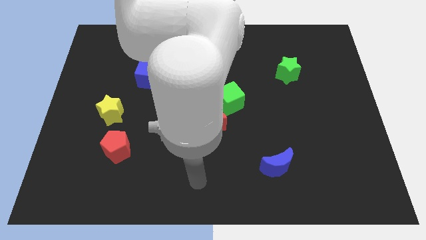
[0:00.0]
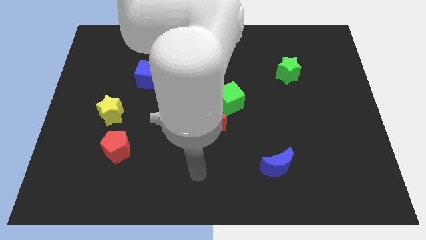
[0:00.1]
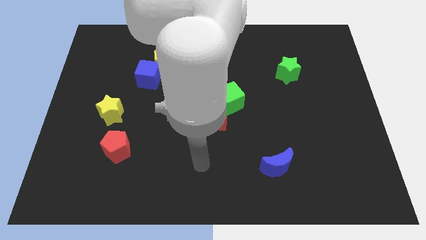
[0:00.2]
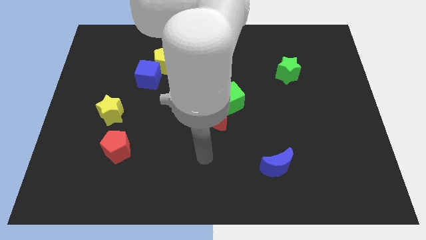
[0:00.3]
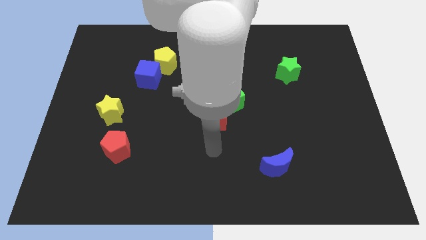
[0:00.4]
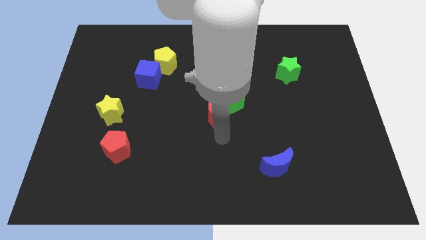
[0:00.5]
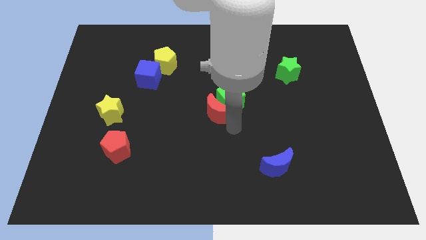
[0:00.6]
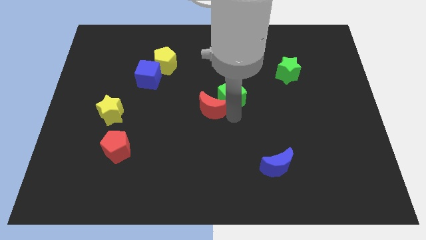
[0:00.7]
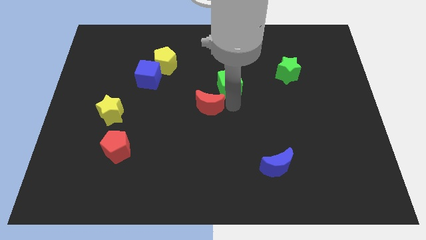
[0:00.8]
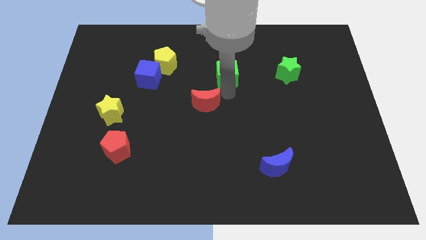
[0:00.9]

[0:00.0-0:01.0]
move the red moon away from the green cube

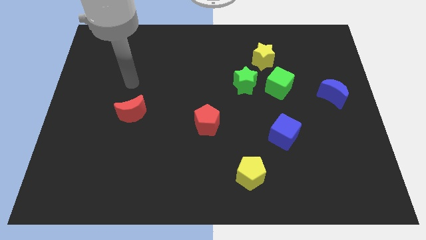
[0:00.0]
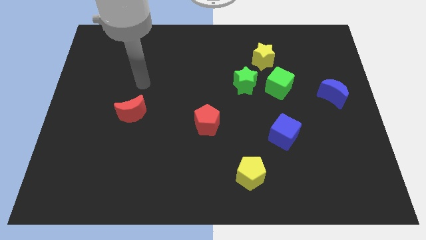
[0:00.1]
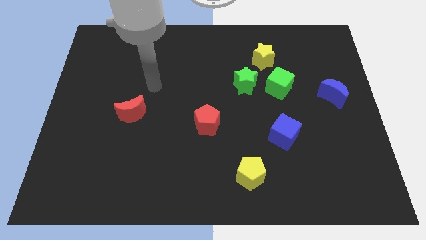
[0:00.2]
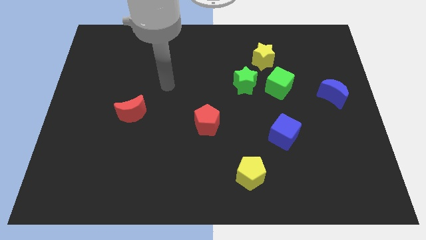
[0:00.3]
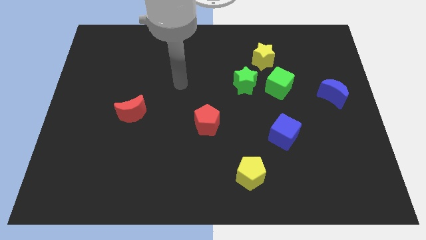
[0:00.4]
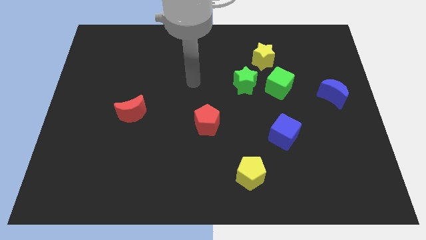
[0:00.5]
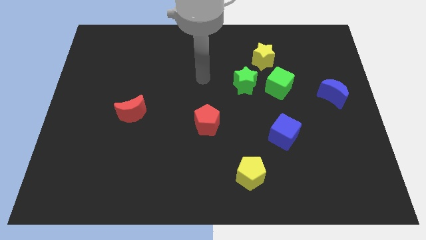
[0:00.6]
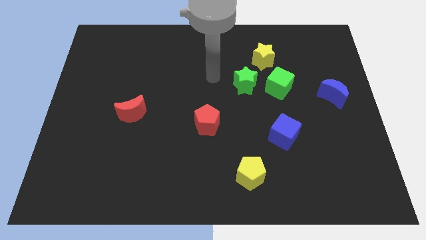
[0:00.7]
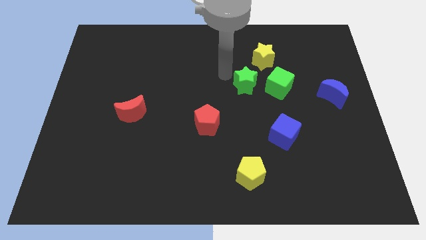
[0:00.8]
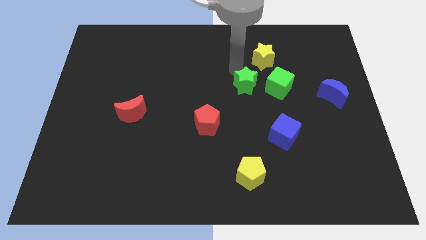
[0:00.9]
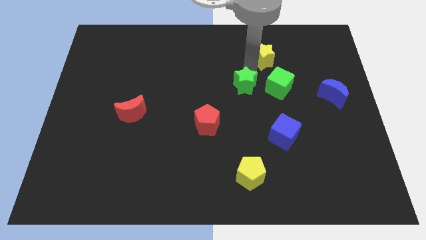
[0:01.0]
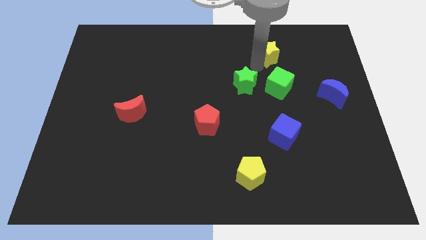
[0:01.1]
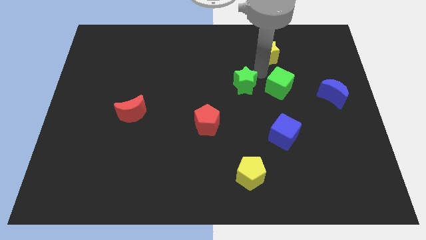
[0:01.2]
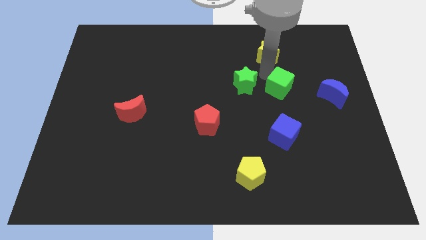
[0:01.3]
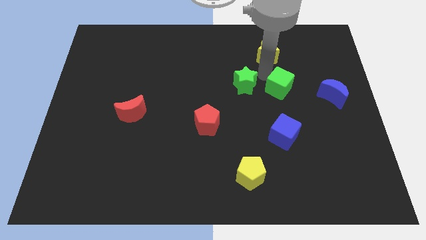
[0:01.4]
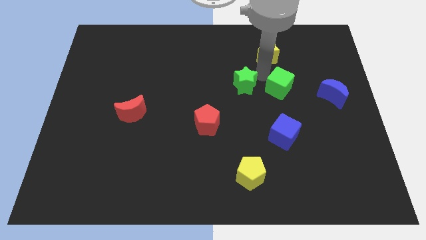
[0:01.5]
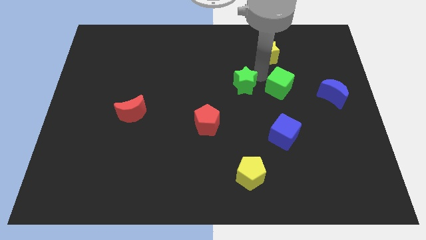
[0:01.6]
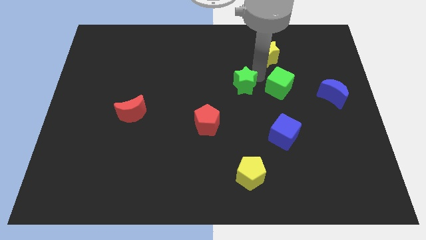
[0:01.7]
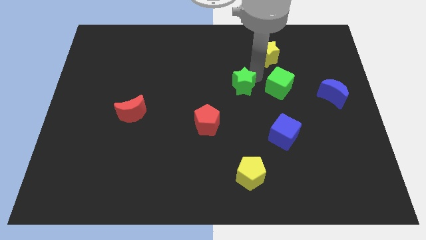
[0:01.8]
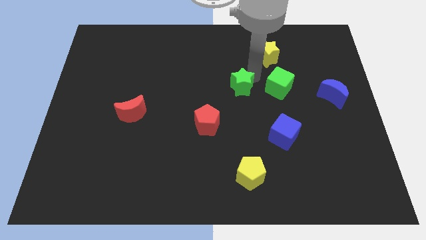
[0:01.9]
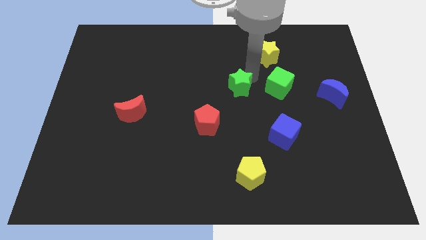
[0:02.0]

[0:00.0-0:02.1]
separate the green star from the green cube and yellow star

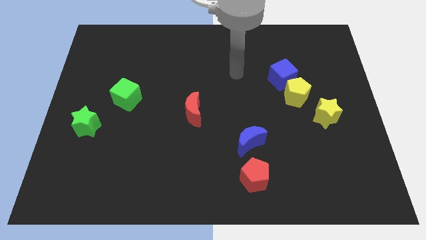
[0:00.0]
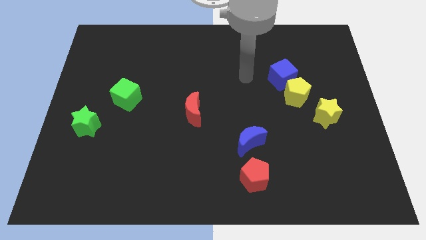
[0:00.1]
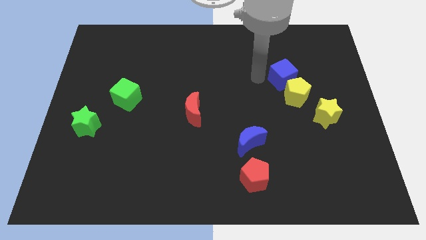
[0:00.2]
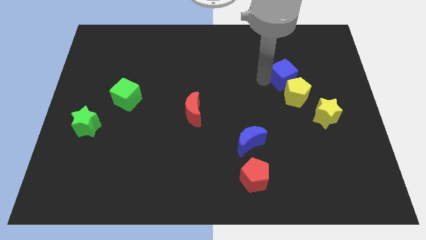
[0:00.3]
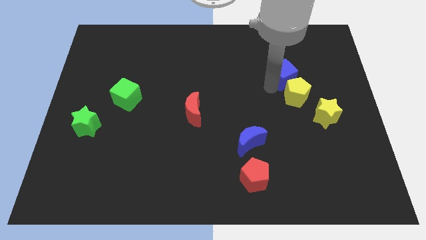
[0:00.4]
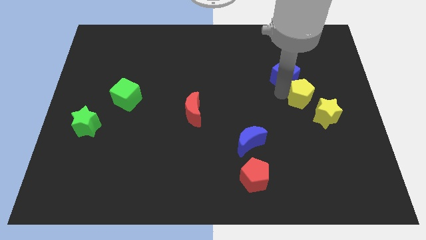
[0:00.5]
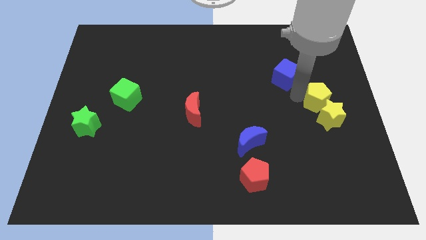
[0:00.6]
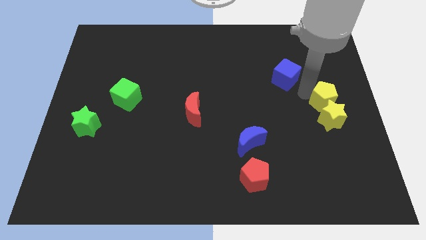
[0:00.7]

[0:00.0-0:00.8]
move the blue cube away from the yellow pentagon

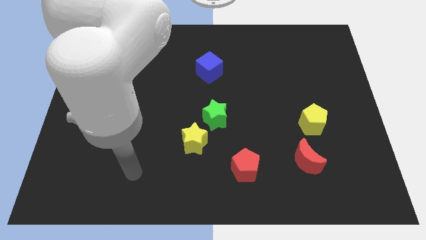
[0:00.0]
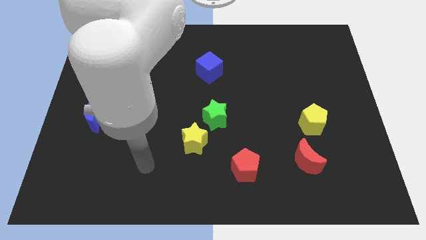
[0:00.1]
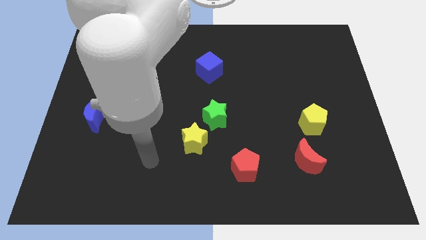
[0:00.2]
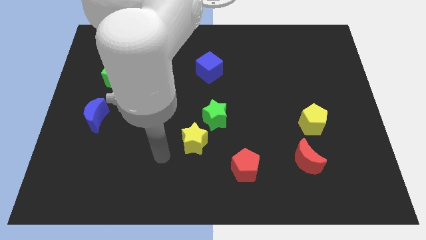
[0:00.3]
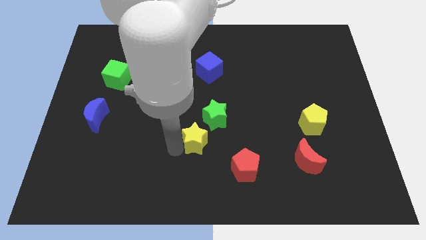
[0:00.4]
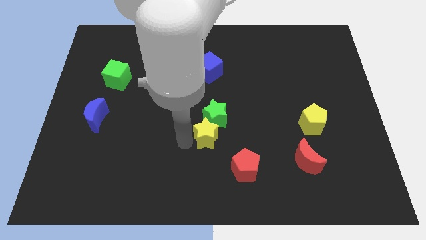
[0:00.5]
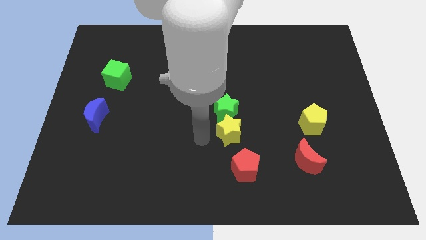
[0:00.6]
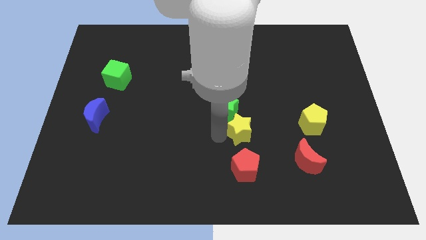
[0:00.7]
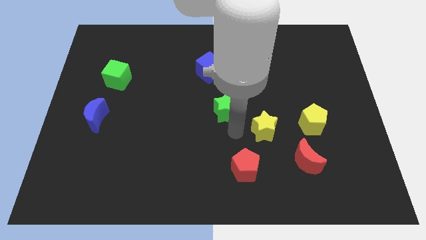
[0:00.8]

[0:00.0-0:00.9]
separate the green star from the yellow star

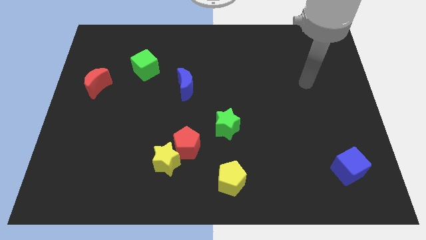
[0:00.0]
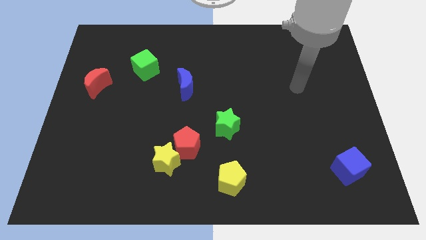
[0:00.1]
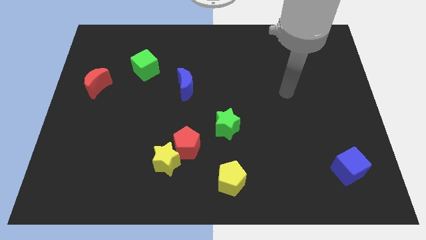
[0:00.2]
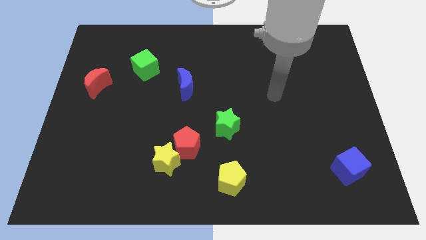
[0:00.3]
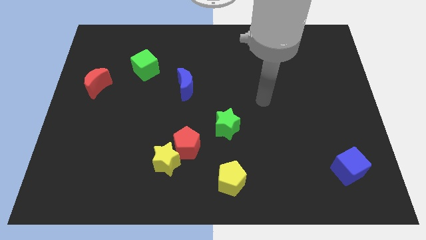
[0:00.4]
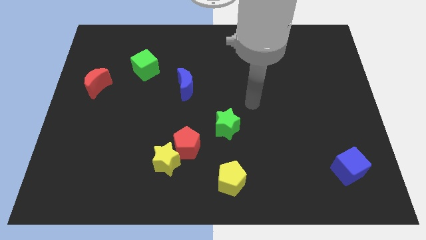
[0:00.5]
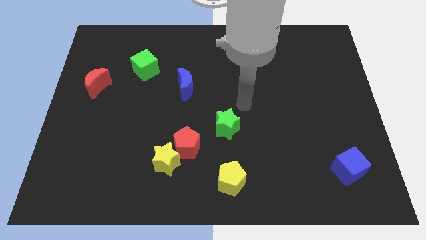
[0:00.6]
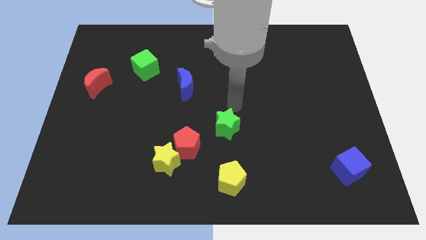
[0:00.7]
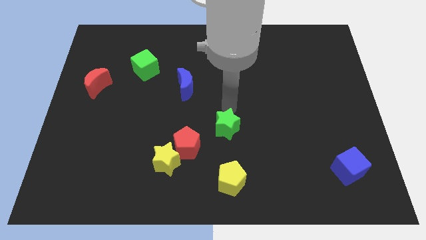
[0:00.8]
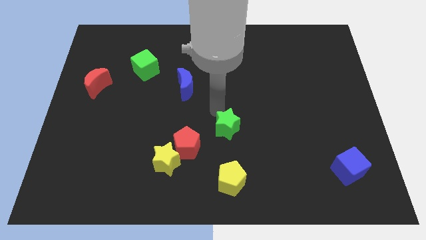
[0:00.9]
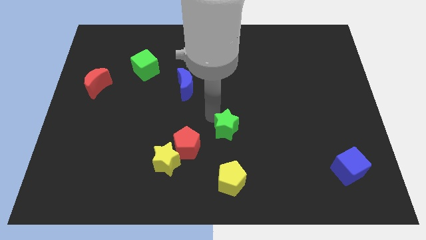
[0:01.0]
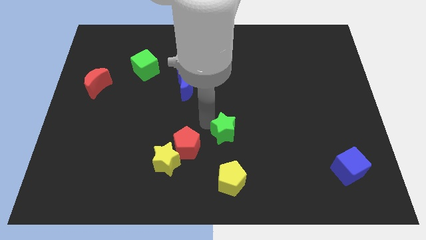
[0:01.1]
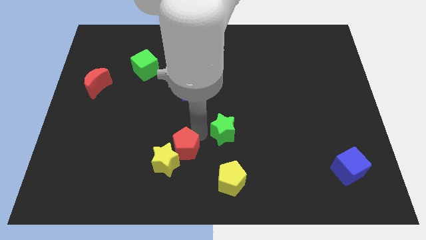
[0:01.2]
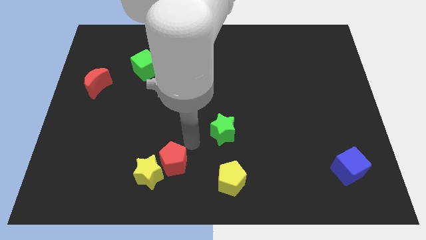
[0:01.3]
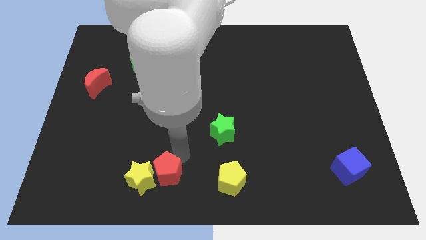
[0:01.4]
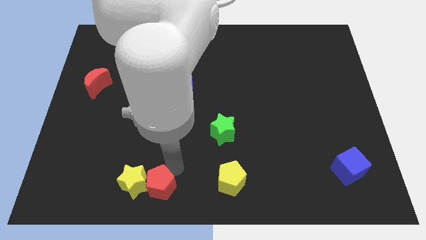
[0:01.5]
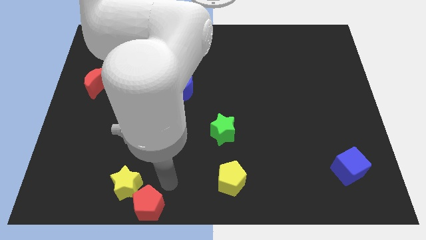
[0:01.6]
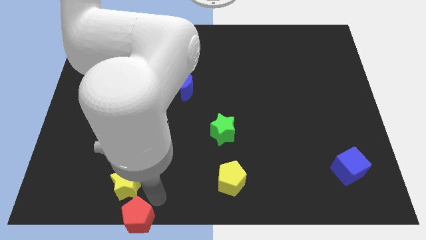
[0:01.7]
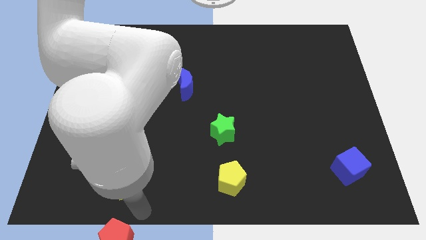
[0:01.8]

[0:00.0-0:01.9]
pull the yellow star apart from the red pentagon

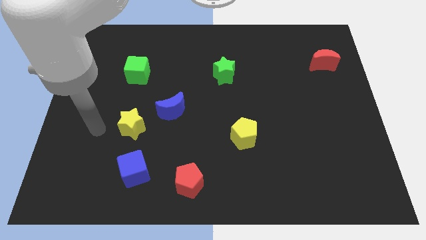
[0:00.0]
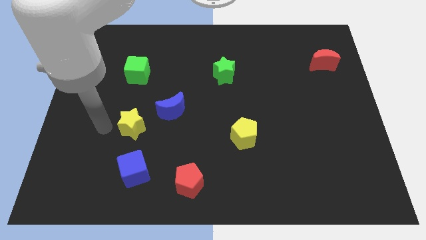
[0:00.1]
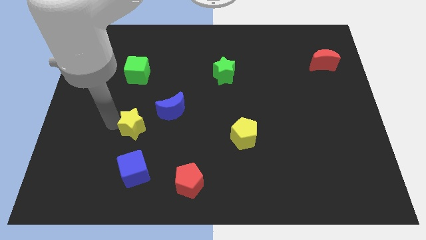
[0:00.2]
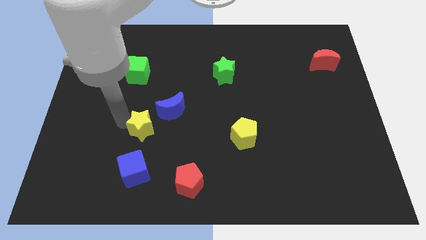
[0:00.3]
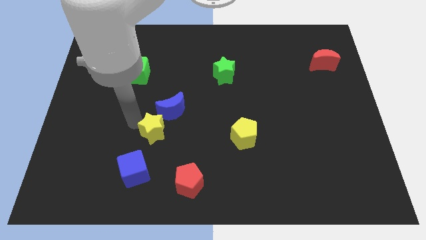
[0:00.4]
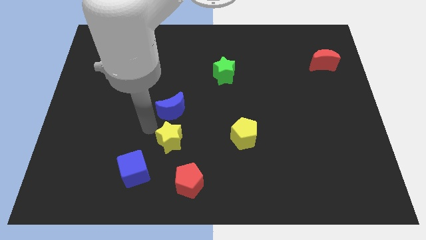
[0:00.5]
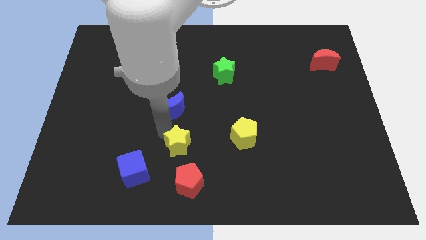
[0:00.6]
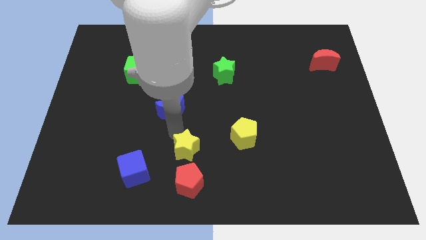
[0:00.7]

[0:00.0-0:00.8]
separate the blue moon from the yellow star

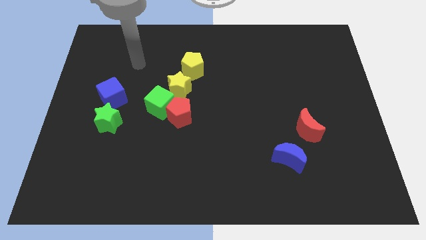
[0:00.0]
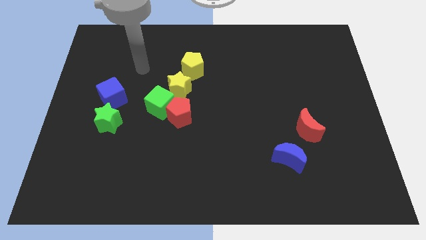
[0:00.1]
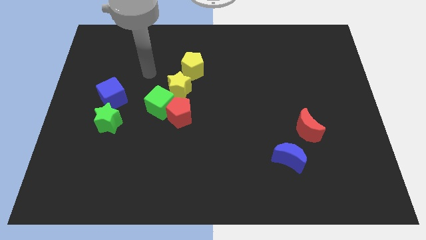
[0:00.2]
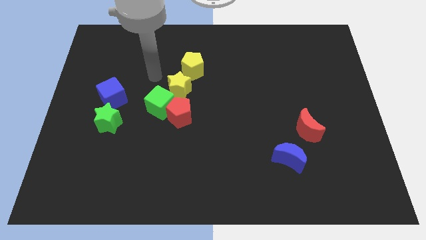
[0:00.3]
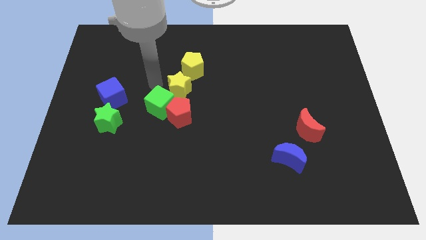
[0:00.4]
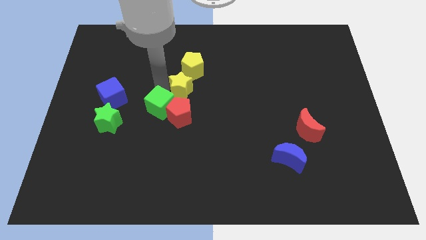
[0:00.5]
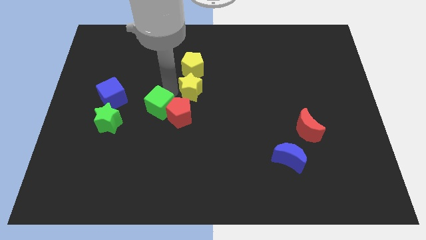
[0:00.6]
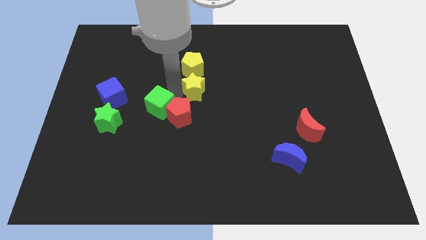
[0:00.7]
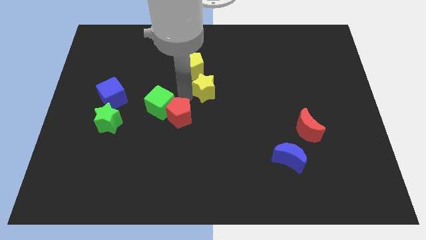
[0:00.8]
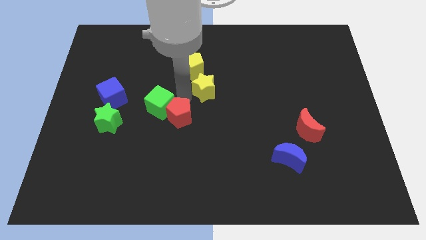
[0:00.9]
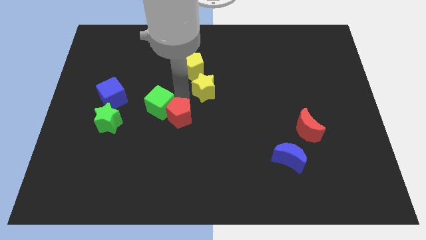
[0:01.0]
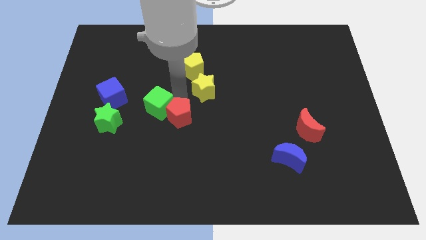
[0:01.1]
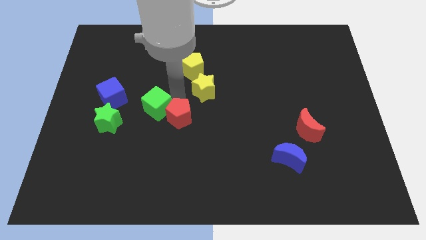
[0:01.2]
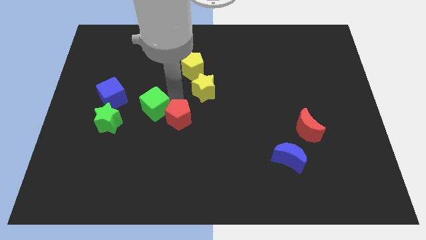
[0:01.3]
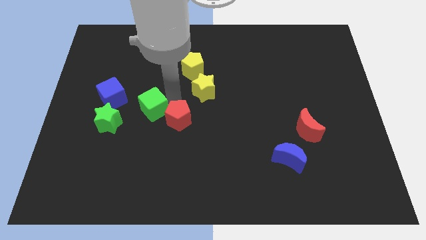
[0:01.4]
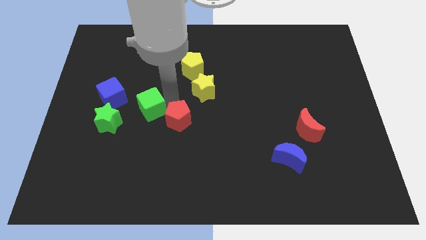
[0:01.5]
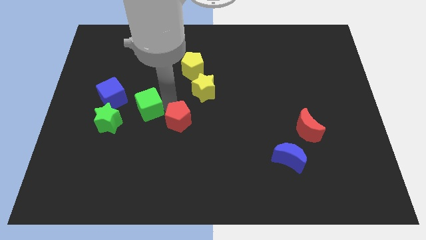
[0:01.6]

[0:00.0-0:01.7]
move the green cube away from the red pentagon and yellow star

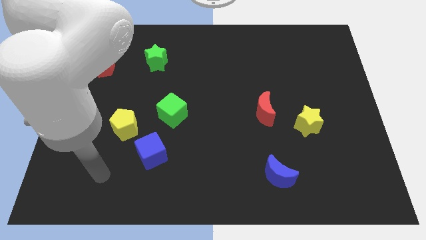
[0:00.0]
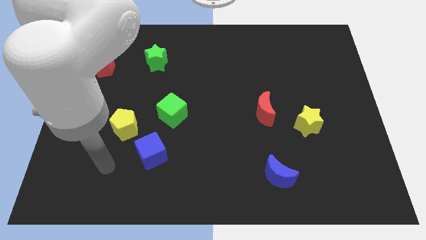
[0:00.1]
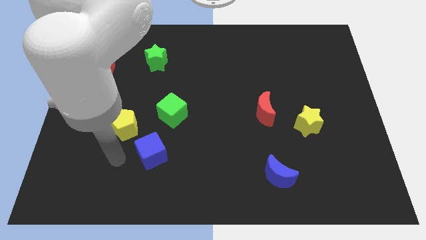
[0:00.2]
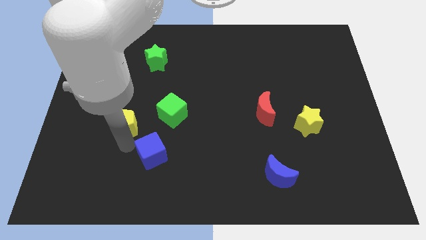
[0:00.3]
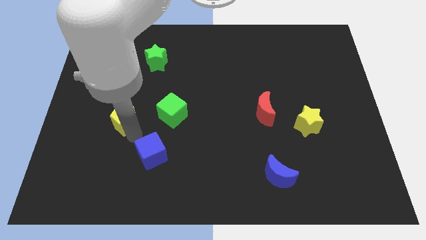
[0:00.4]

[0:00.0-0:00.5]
separate the blue cube from the yellow pentagon
